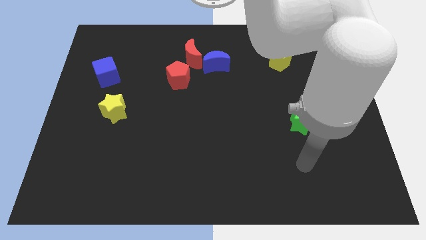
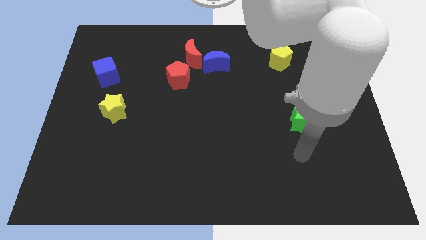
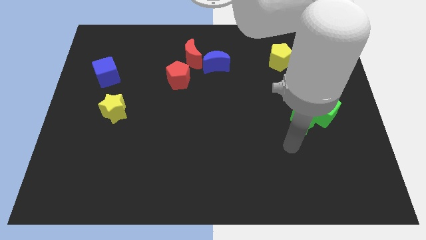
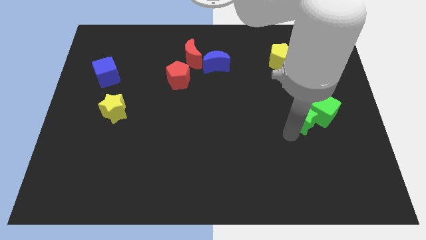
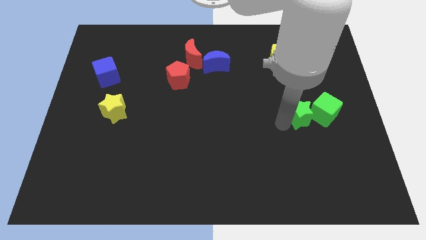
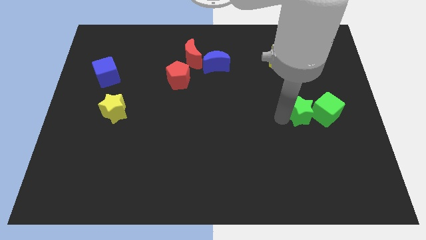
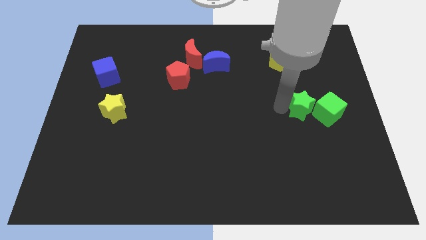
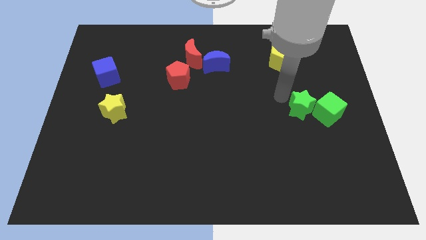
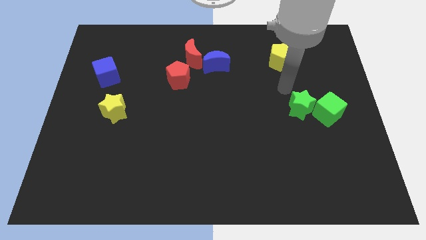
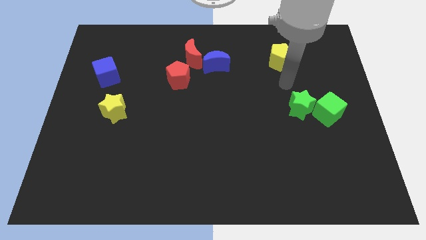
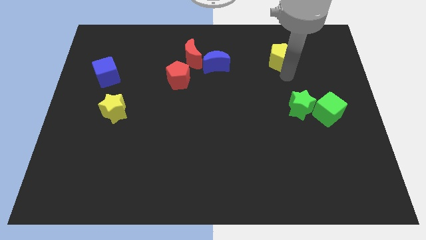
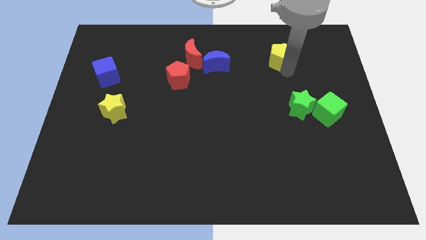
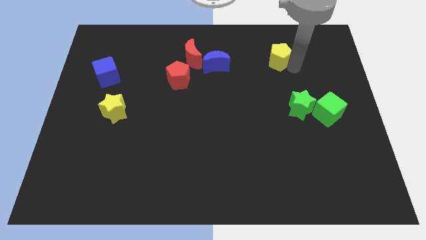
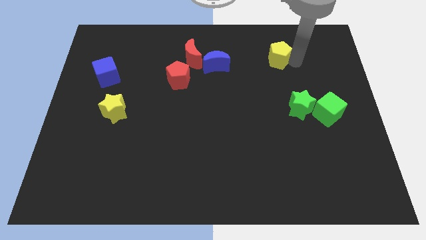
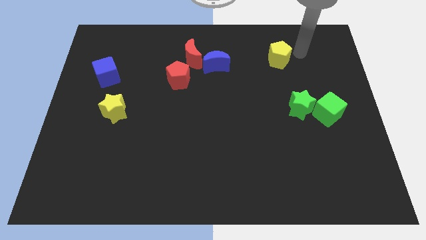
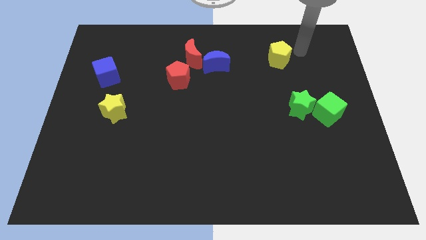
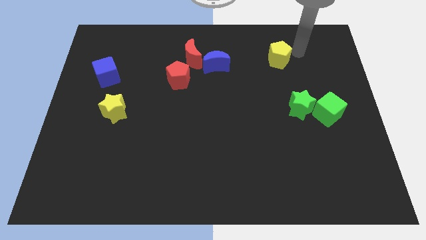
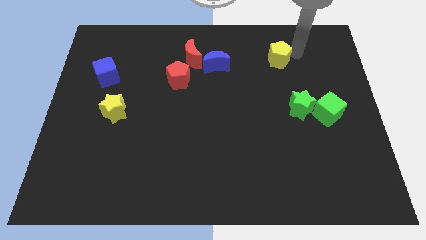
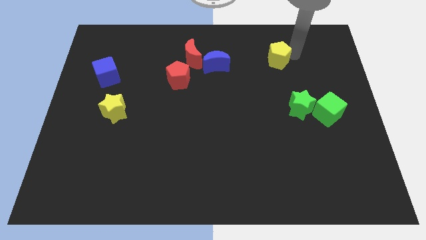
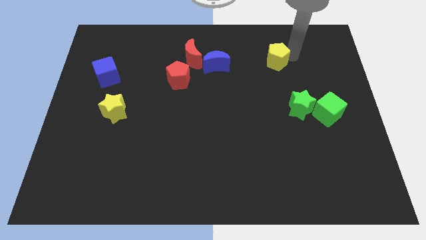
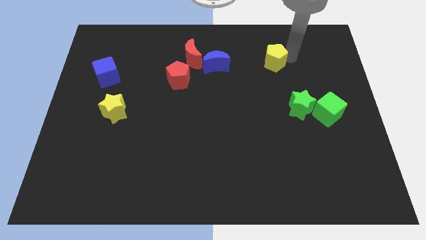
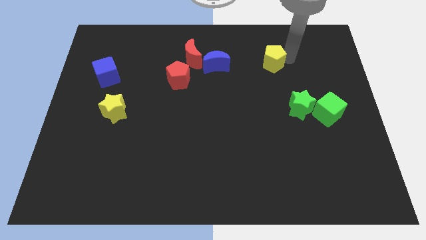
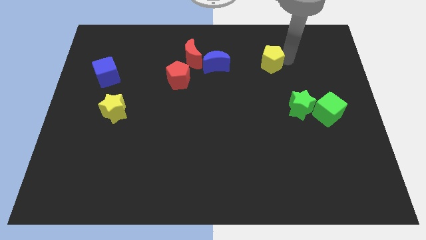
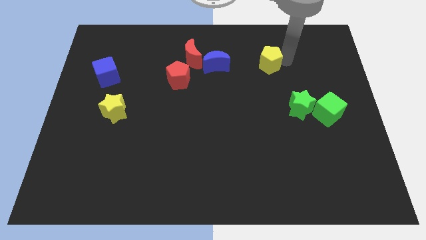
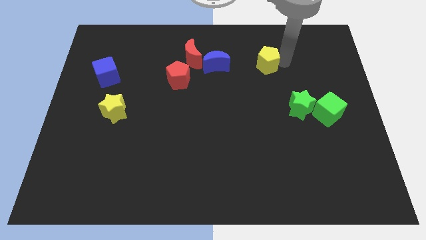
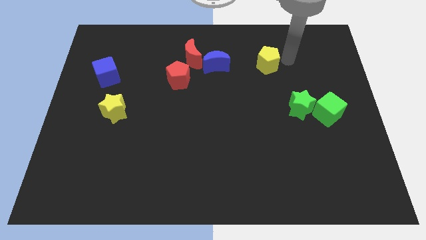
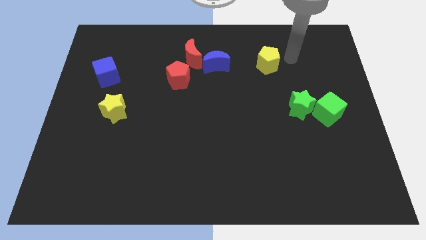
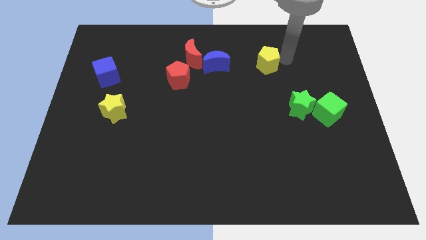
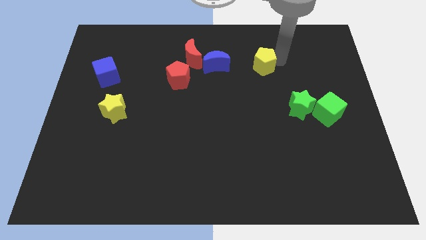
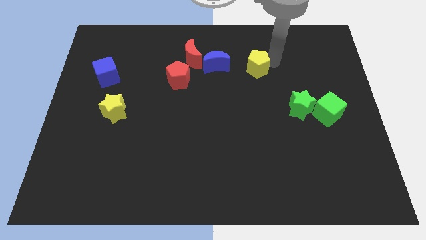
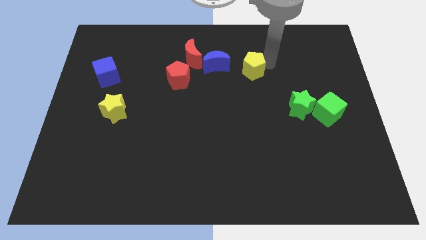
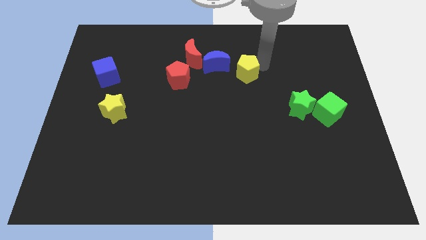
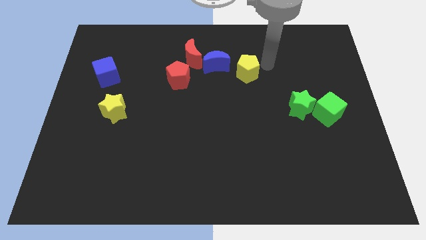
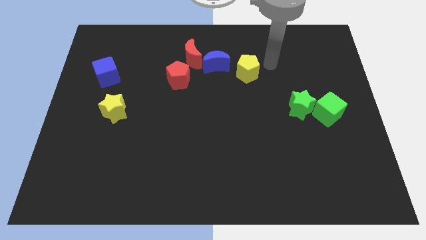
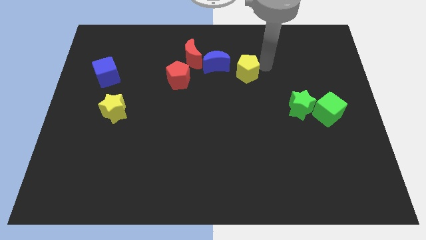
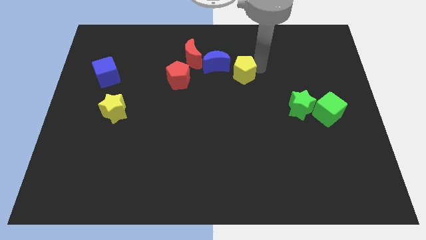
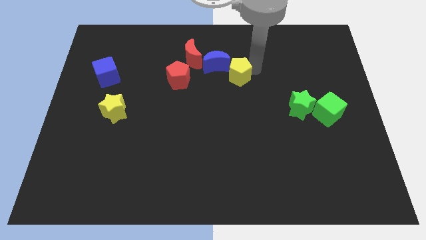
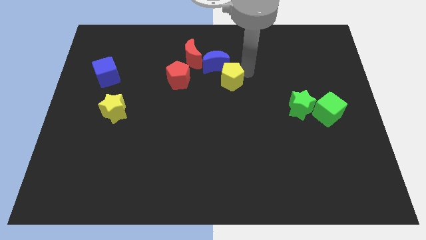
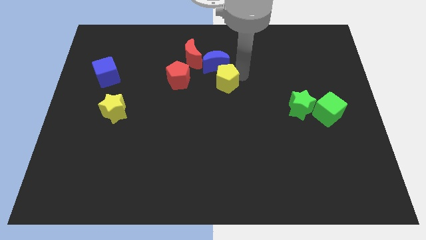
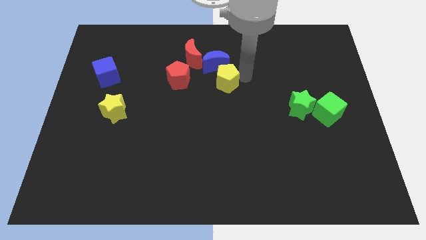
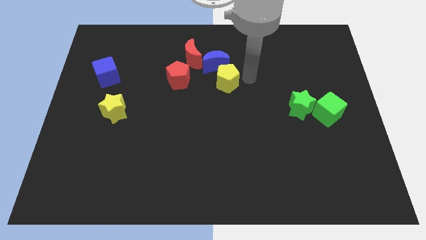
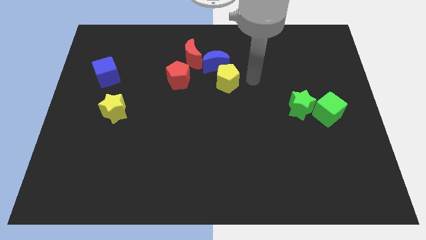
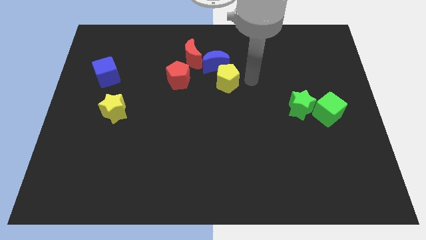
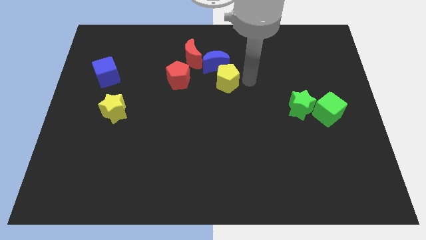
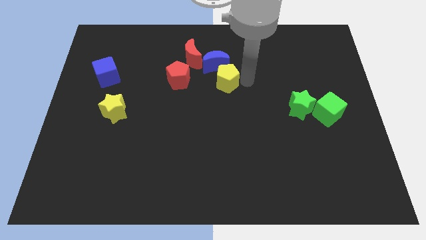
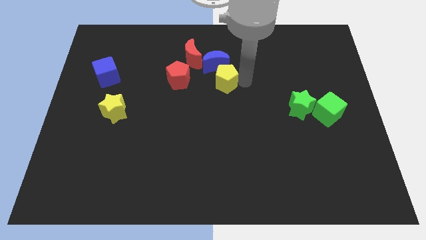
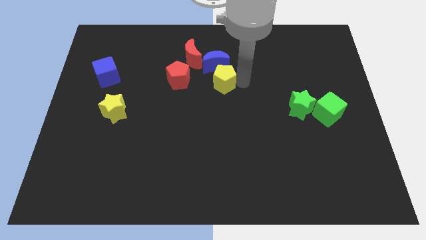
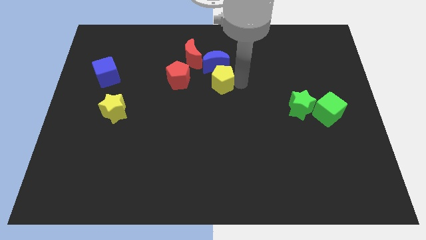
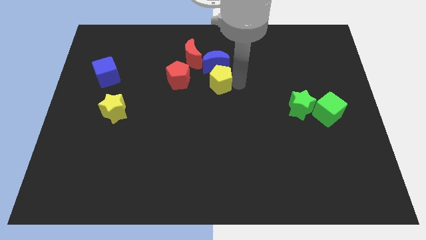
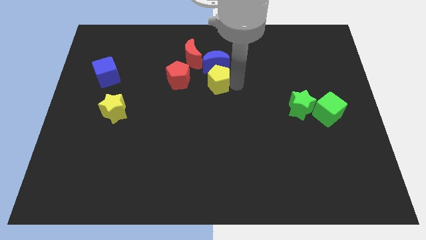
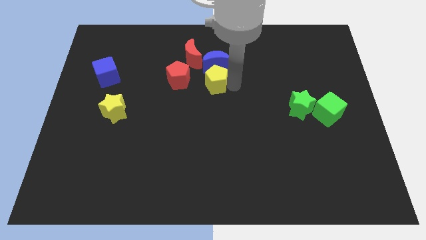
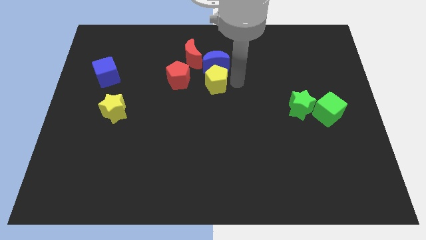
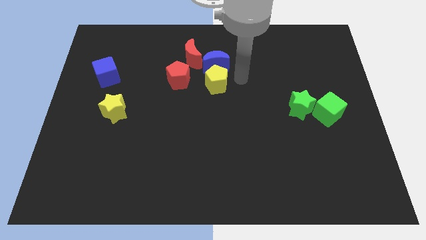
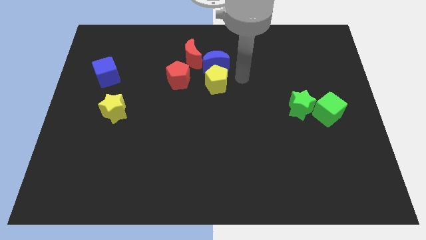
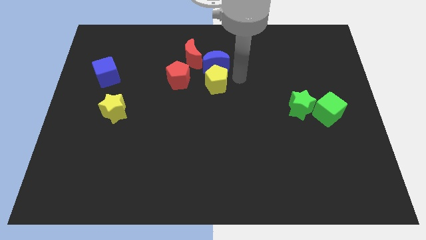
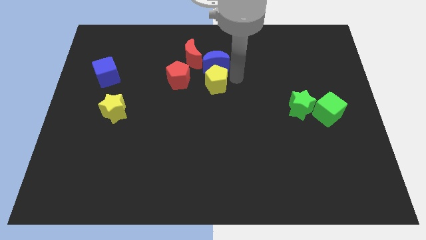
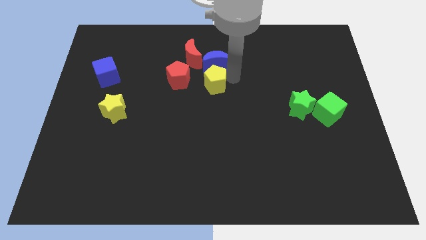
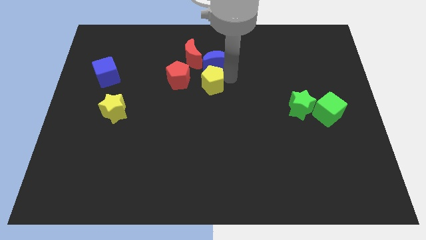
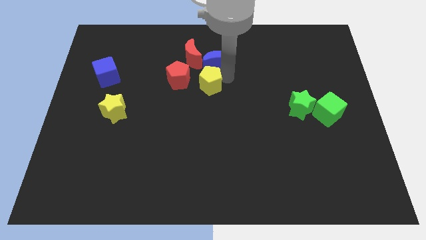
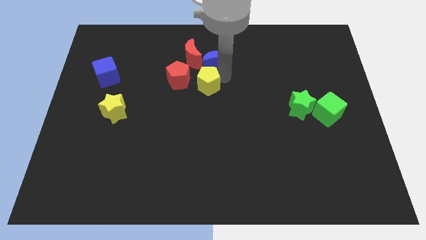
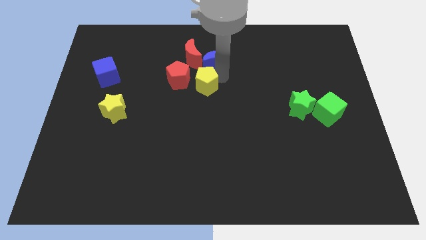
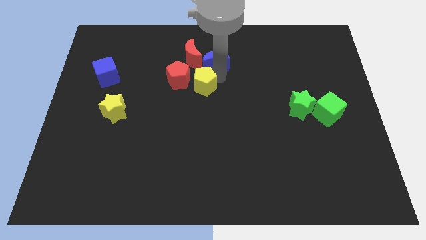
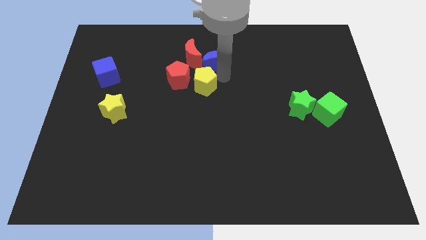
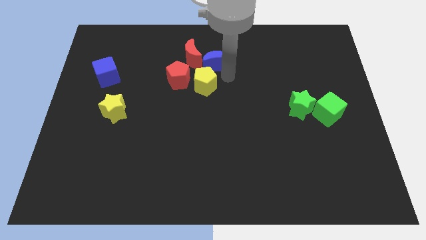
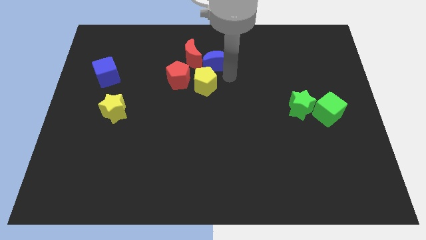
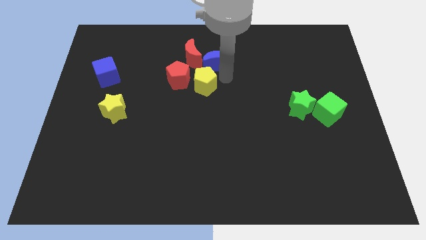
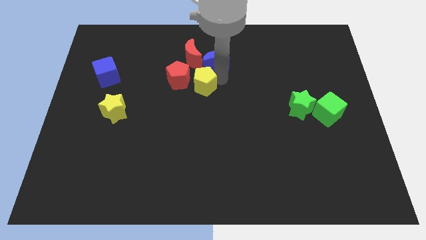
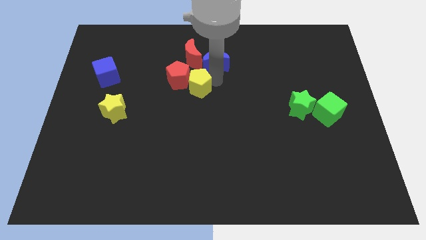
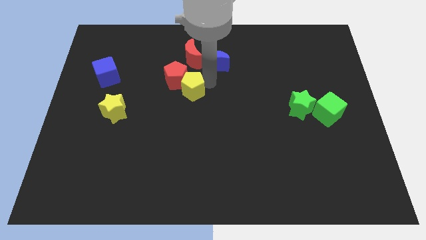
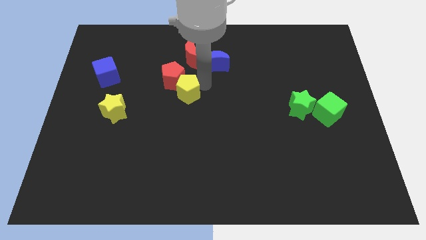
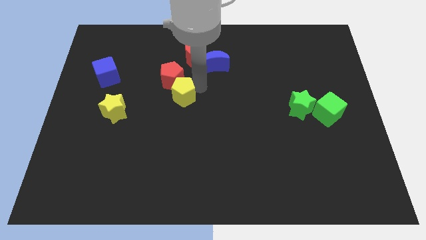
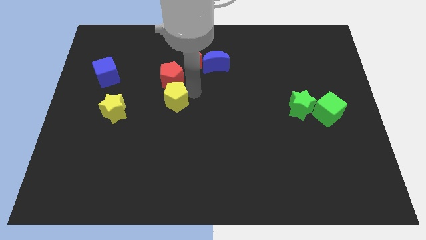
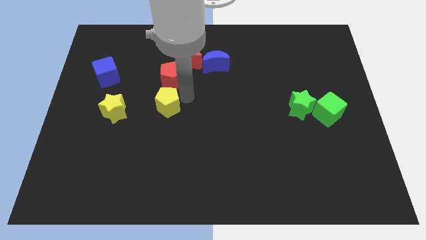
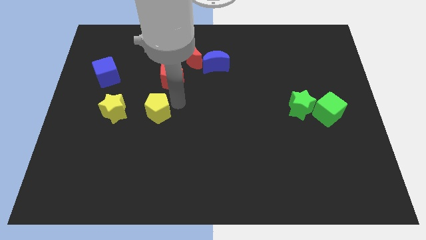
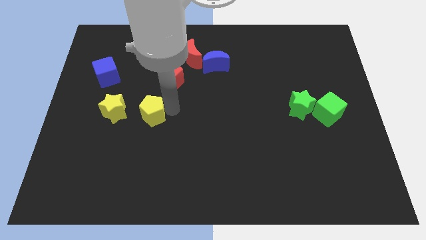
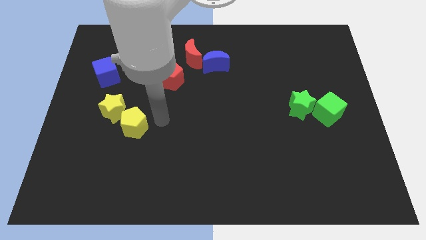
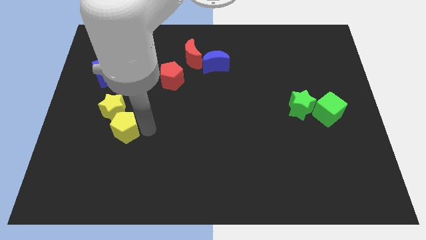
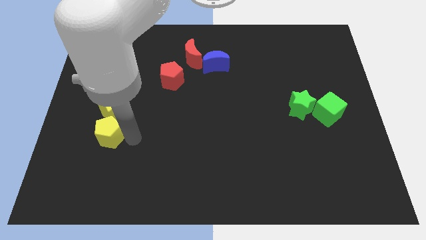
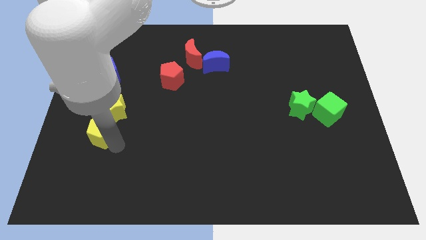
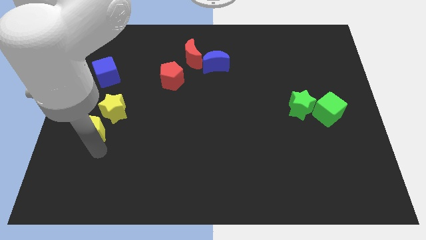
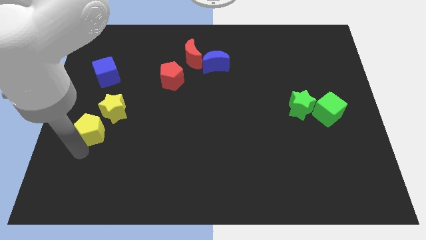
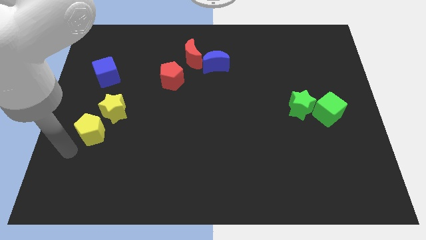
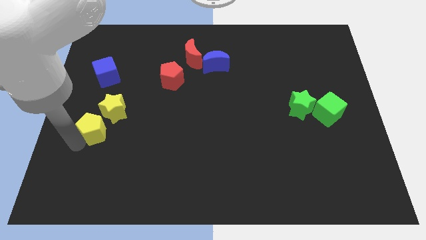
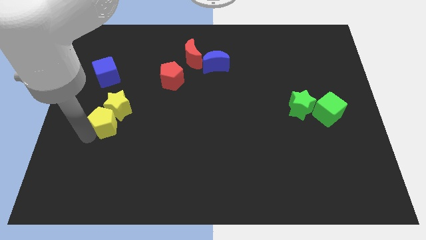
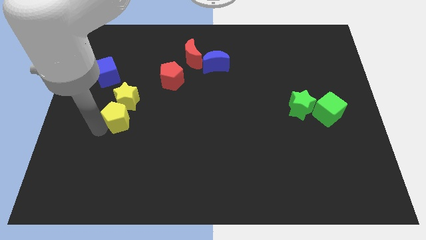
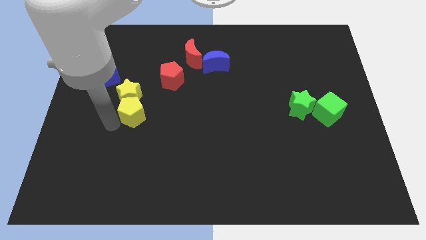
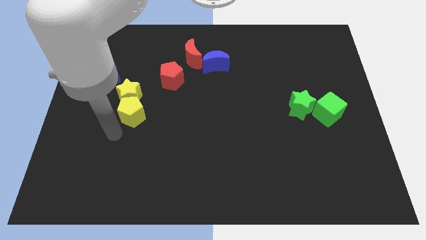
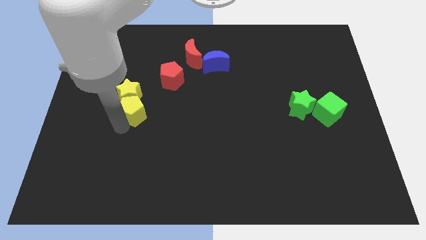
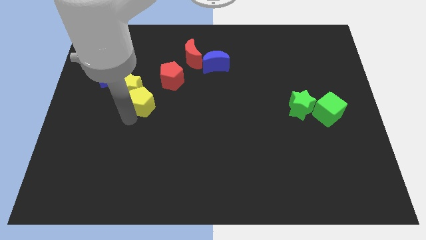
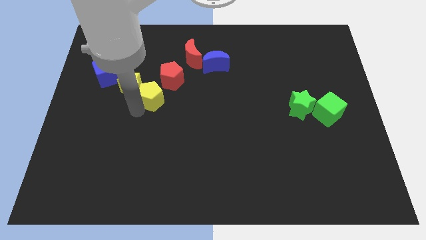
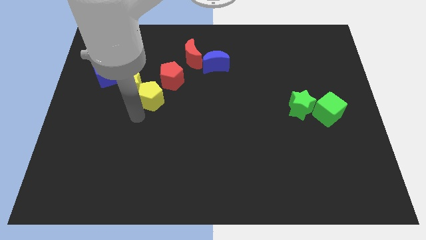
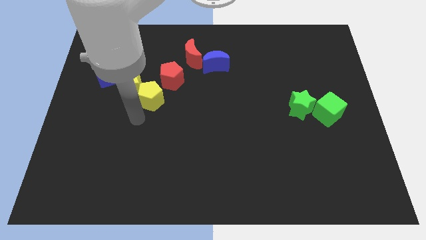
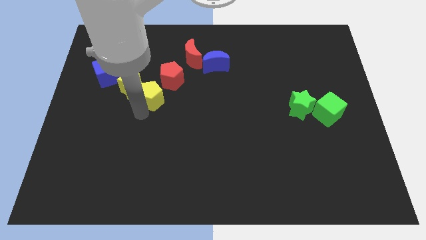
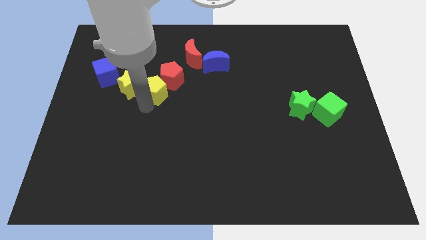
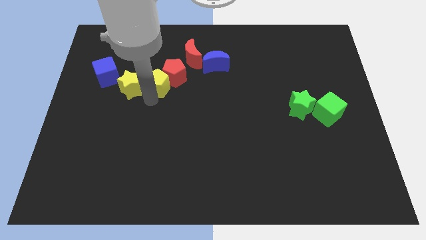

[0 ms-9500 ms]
push the yellow pentagon diagonally down and to the left of the red moon
